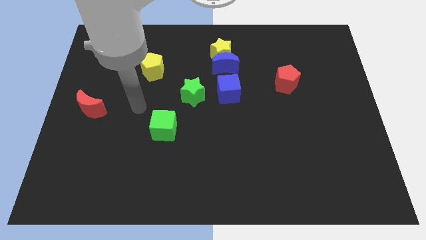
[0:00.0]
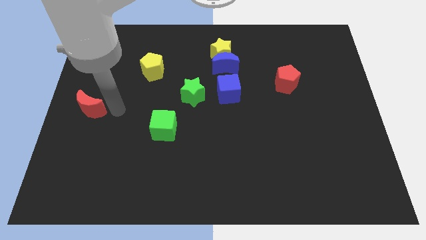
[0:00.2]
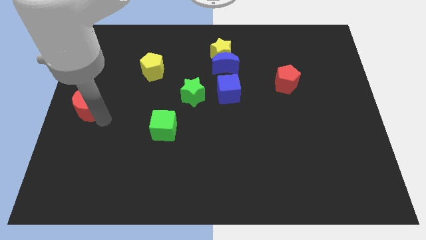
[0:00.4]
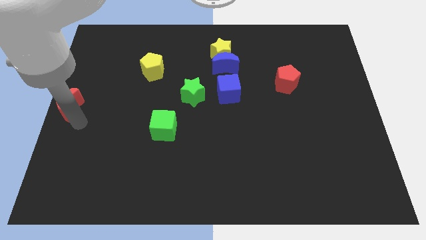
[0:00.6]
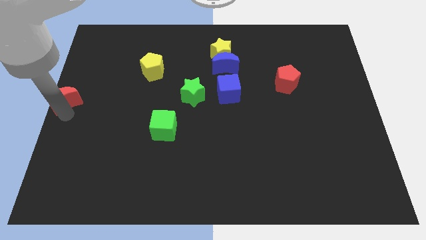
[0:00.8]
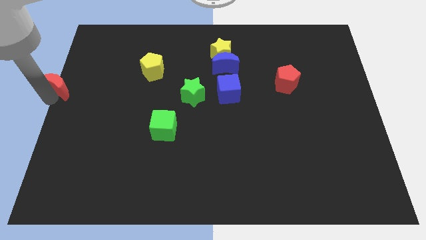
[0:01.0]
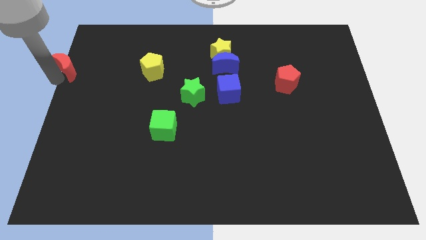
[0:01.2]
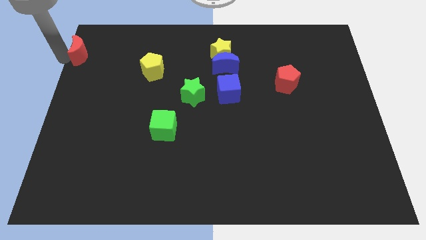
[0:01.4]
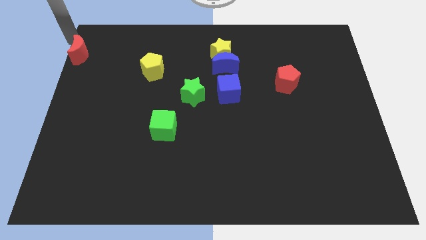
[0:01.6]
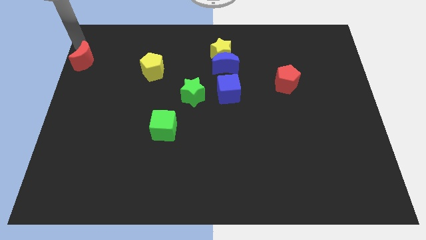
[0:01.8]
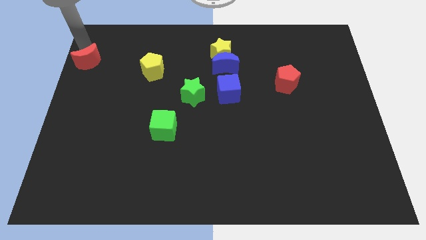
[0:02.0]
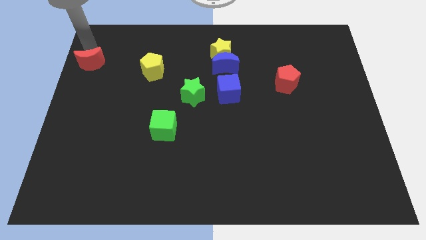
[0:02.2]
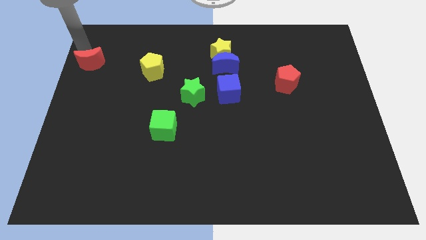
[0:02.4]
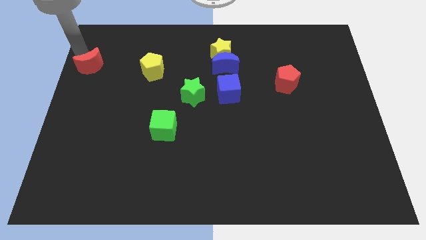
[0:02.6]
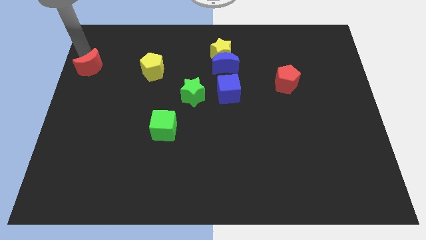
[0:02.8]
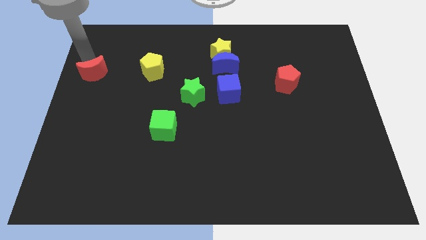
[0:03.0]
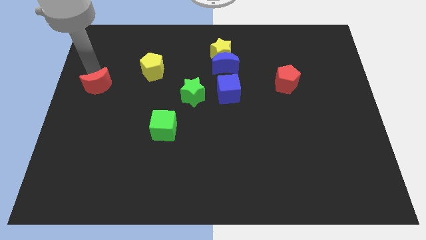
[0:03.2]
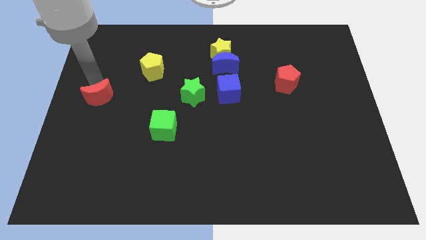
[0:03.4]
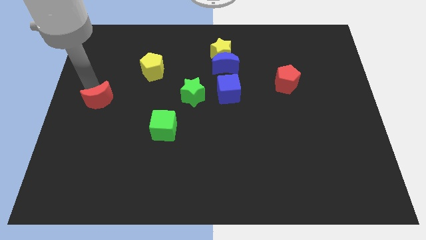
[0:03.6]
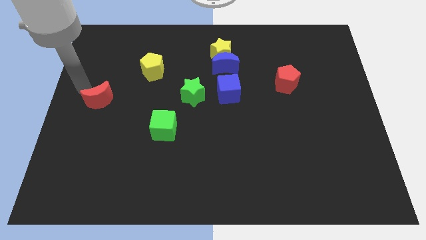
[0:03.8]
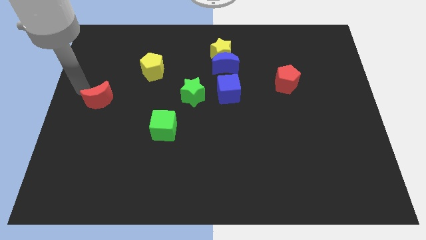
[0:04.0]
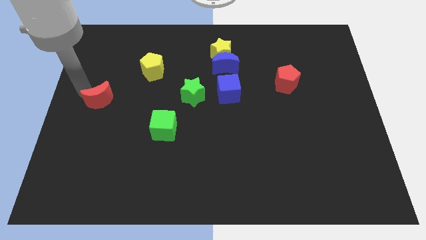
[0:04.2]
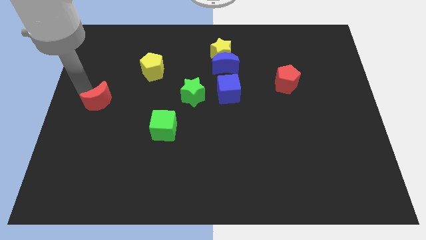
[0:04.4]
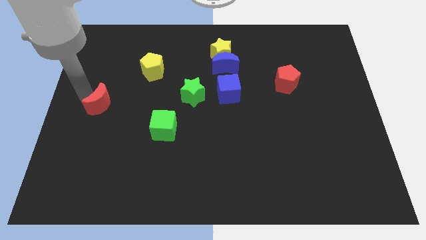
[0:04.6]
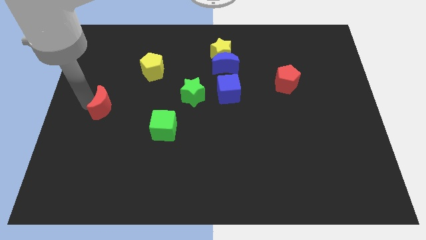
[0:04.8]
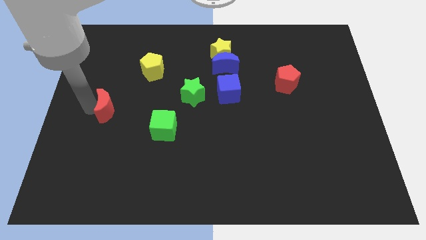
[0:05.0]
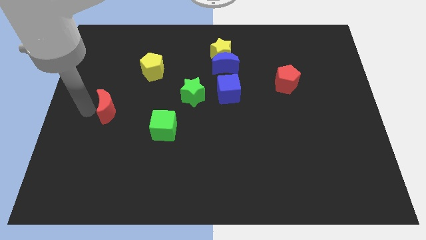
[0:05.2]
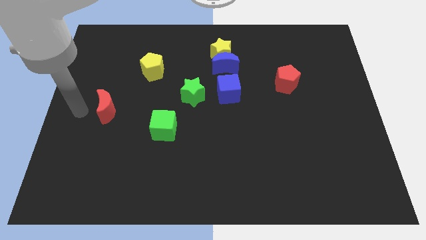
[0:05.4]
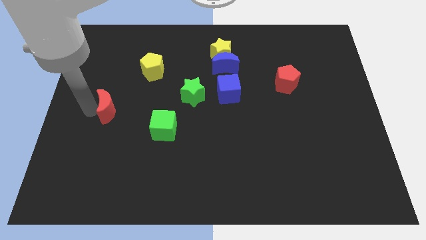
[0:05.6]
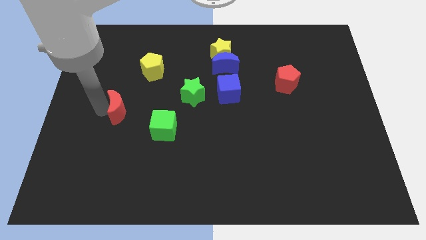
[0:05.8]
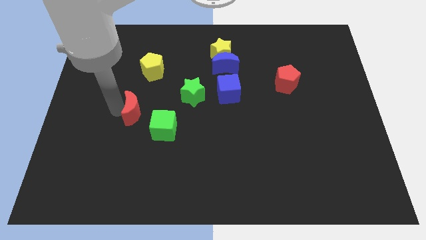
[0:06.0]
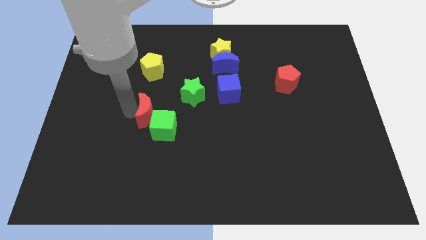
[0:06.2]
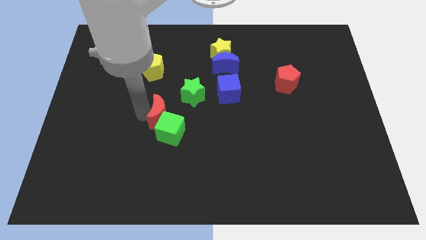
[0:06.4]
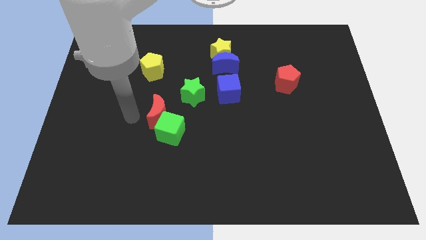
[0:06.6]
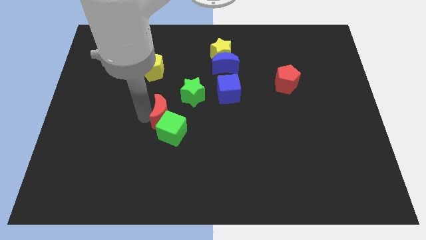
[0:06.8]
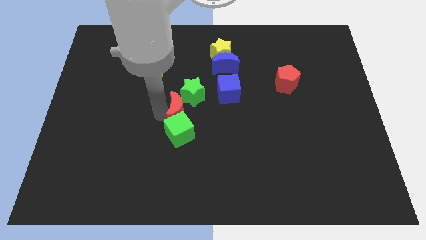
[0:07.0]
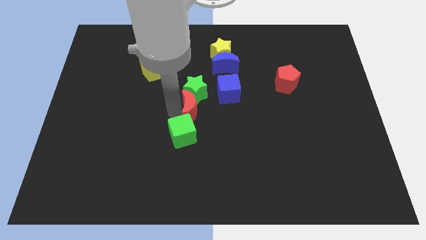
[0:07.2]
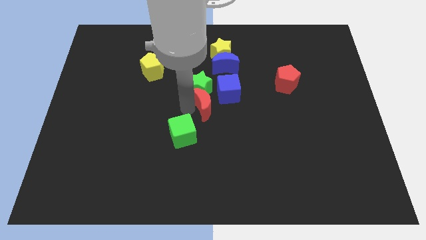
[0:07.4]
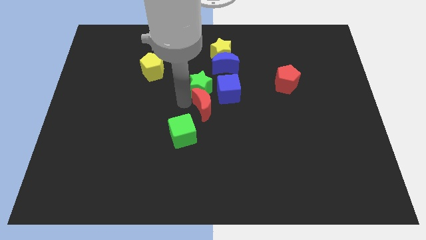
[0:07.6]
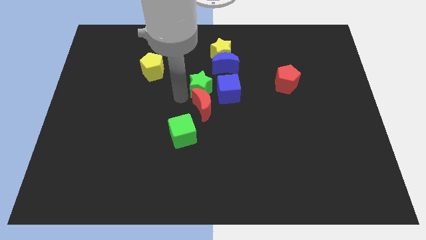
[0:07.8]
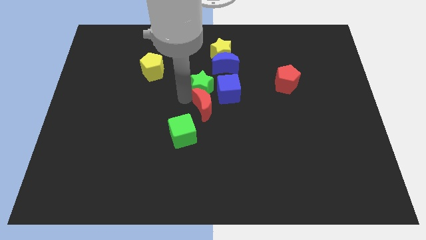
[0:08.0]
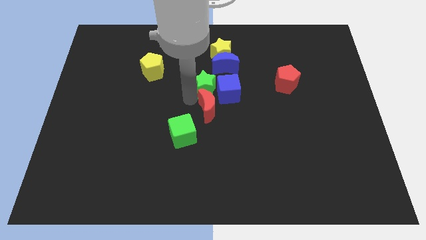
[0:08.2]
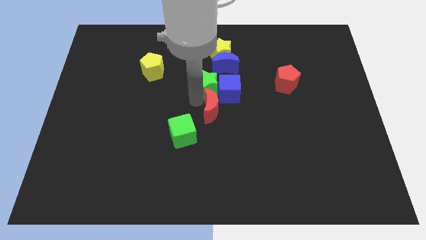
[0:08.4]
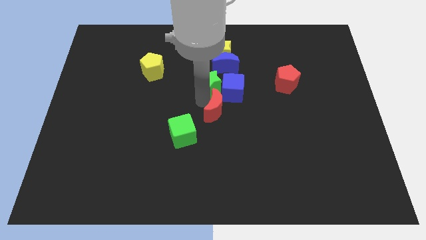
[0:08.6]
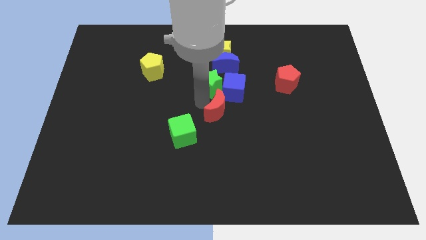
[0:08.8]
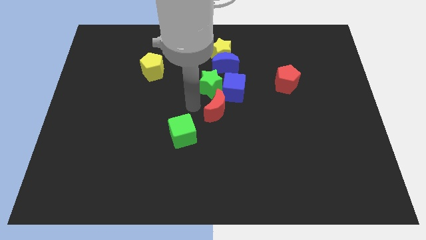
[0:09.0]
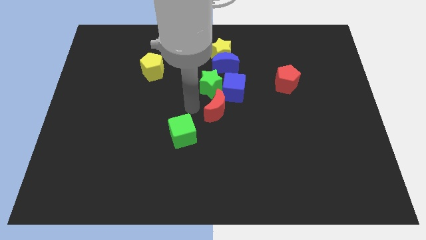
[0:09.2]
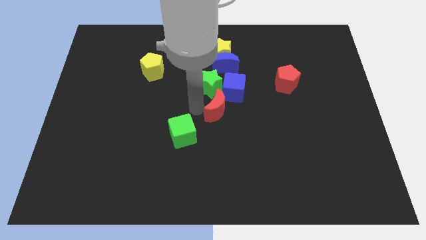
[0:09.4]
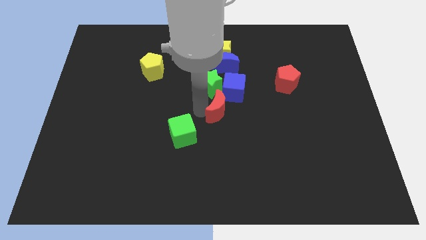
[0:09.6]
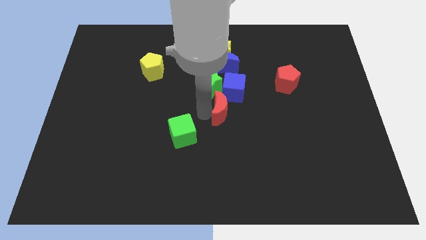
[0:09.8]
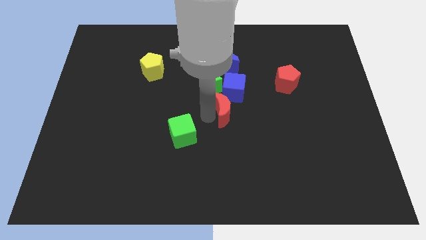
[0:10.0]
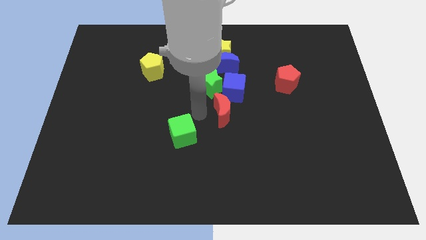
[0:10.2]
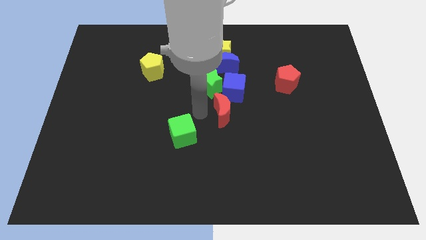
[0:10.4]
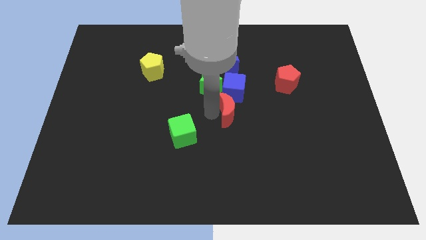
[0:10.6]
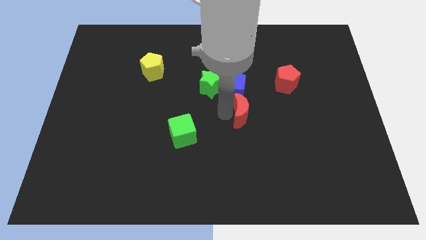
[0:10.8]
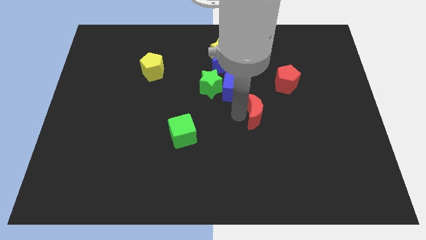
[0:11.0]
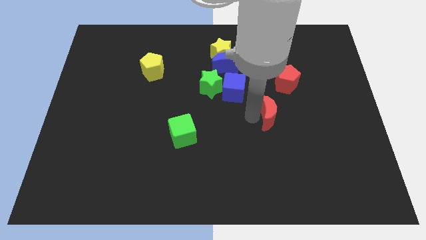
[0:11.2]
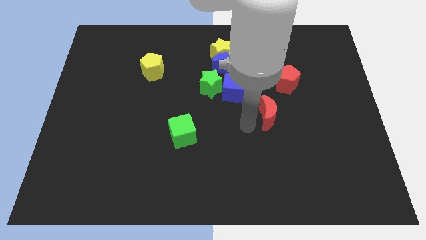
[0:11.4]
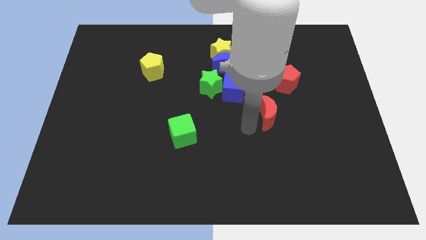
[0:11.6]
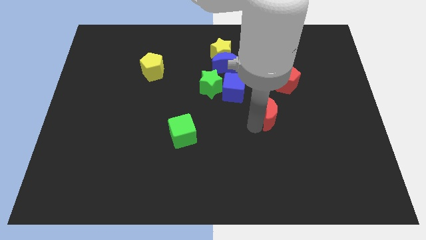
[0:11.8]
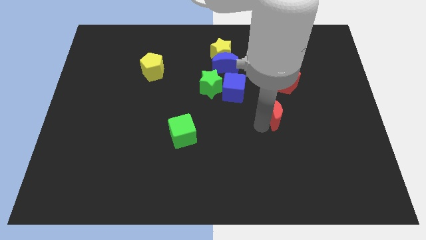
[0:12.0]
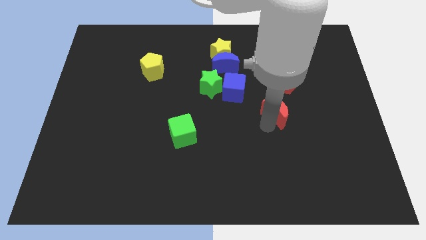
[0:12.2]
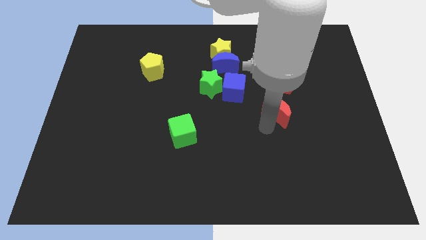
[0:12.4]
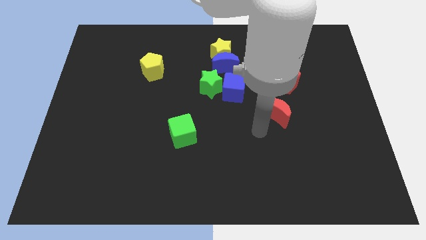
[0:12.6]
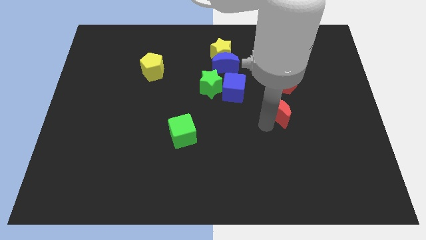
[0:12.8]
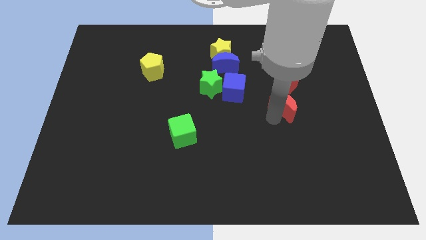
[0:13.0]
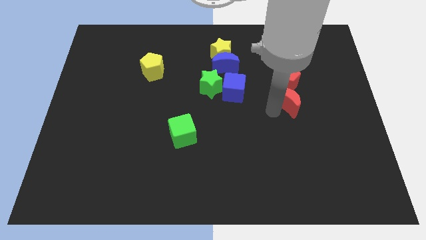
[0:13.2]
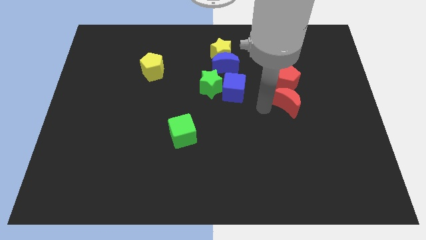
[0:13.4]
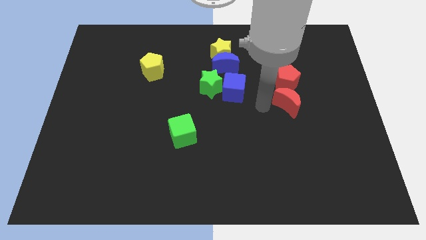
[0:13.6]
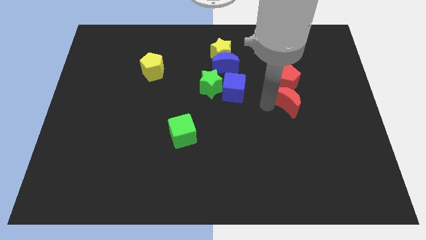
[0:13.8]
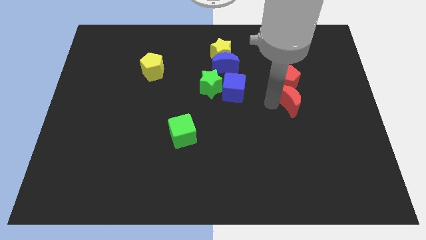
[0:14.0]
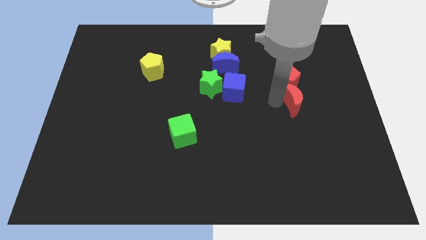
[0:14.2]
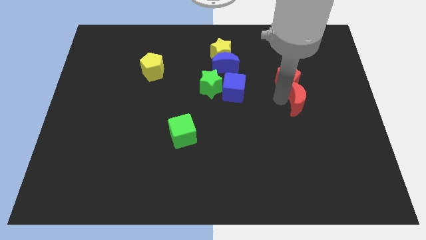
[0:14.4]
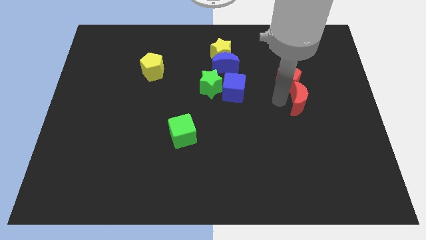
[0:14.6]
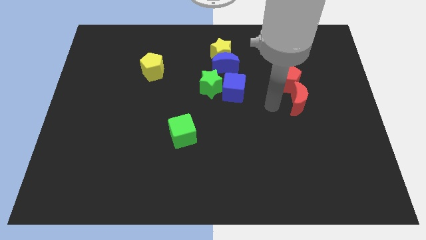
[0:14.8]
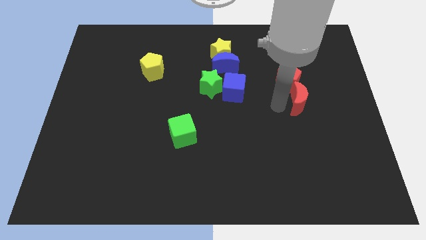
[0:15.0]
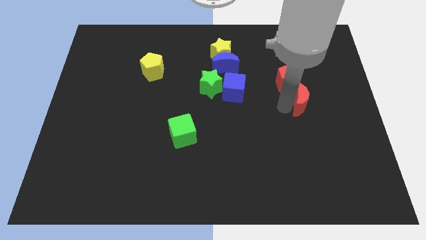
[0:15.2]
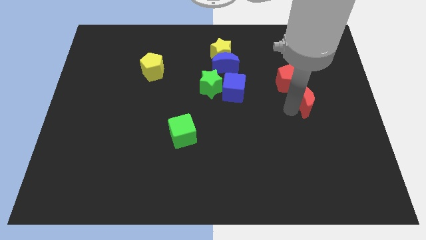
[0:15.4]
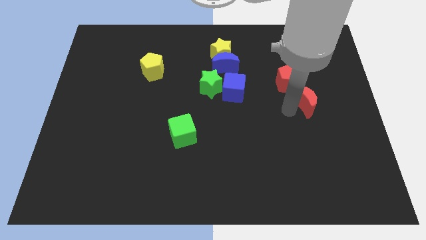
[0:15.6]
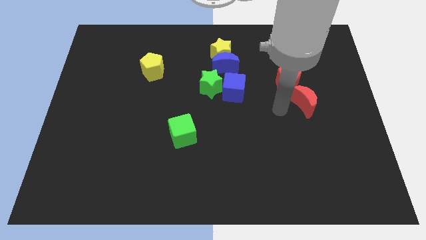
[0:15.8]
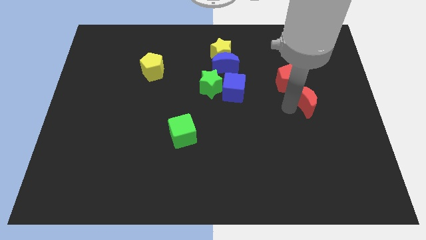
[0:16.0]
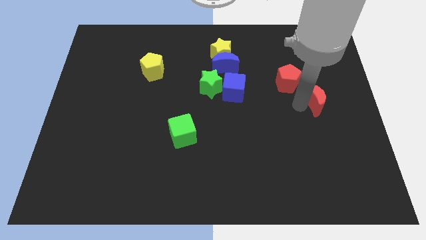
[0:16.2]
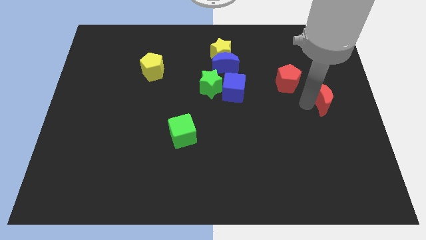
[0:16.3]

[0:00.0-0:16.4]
put the red moon to the right side of the board
